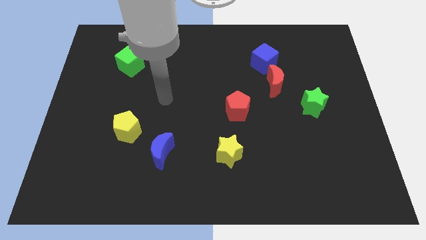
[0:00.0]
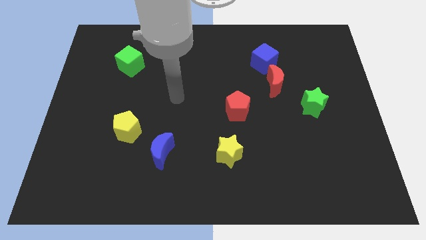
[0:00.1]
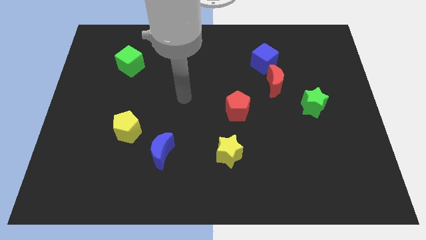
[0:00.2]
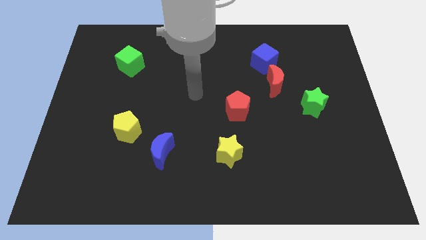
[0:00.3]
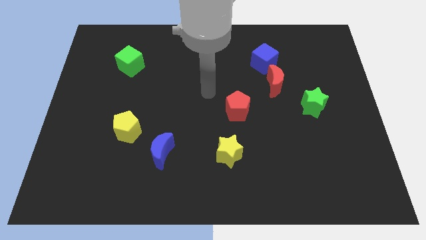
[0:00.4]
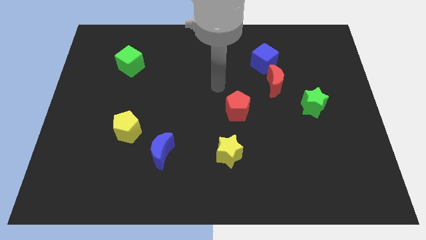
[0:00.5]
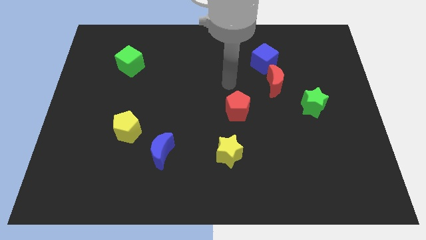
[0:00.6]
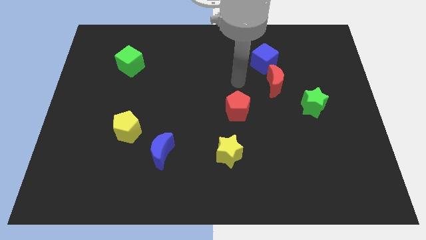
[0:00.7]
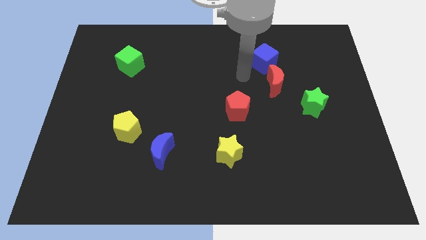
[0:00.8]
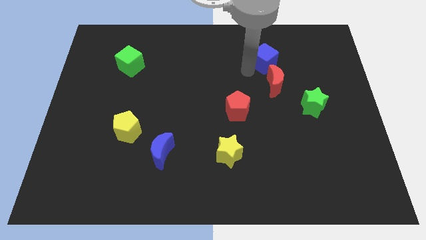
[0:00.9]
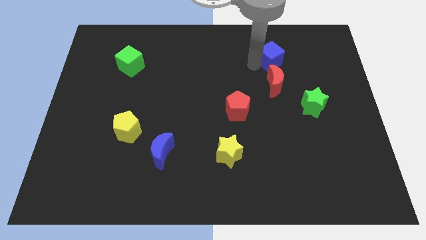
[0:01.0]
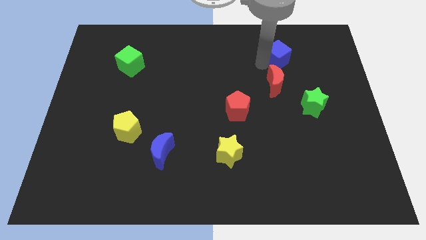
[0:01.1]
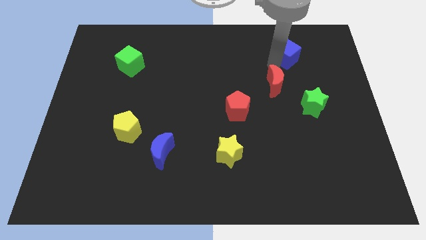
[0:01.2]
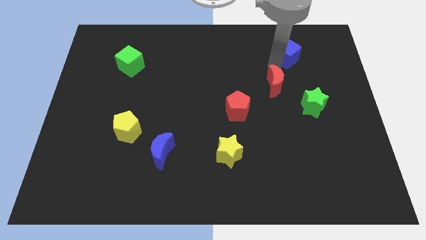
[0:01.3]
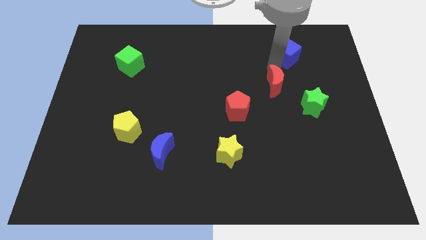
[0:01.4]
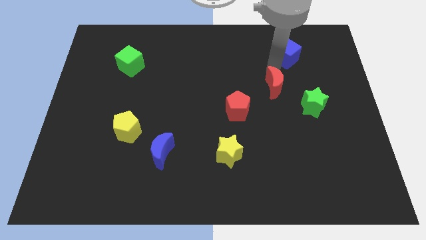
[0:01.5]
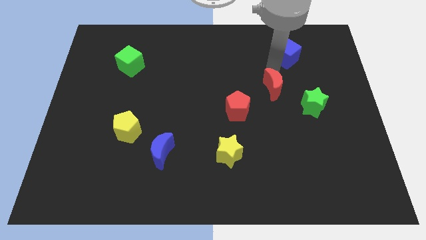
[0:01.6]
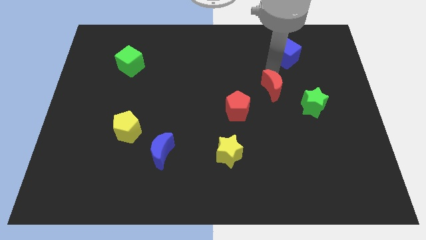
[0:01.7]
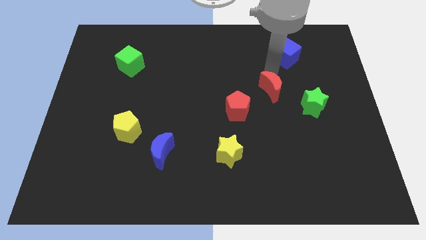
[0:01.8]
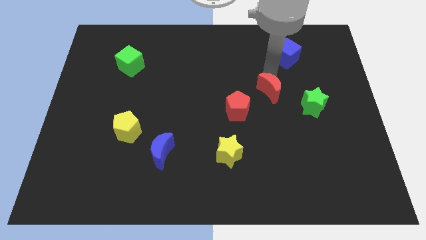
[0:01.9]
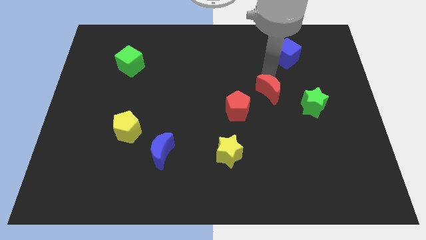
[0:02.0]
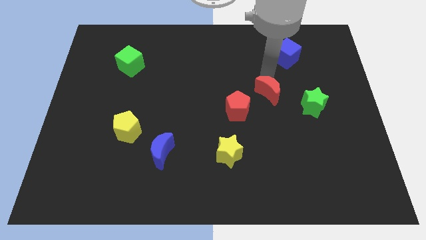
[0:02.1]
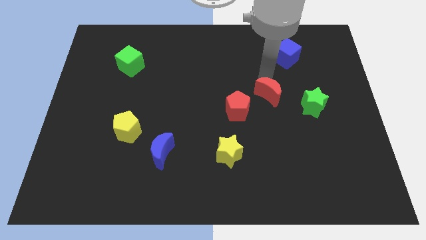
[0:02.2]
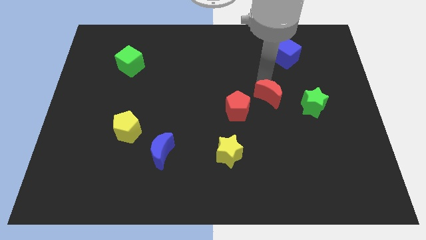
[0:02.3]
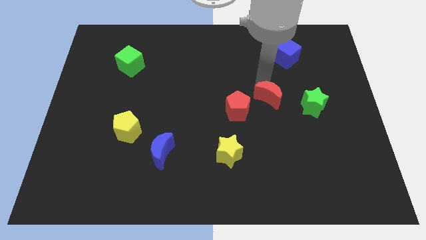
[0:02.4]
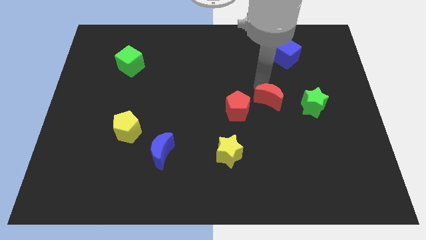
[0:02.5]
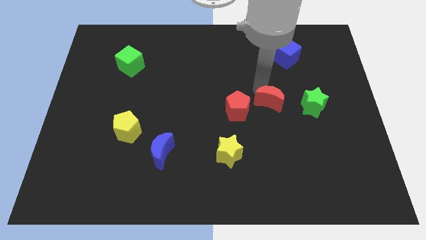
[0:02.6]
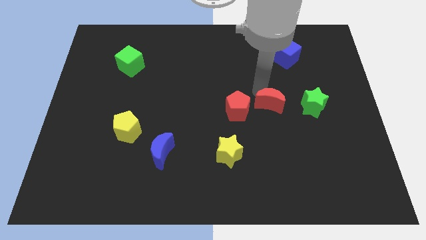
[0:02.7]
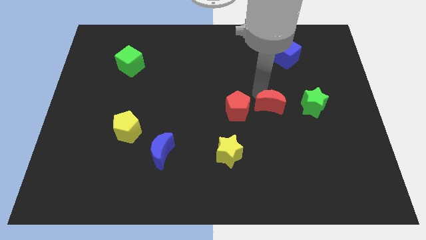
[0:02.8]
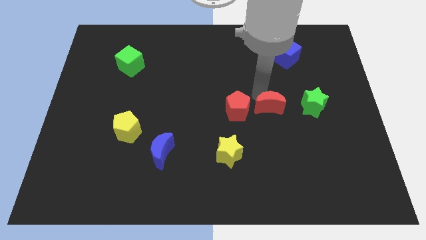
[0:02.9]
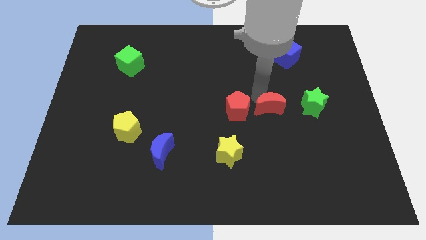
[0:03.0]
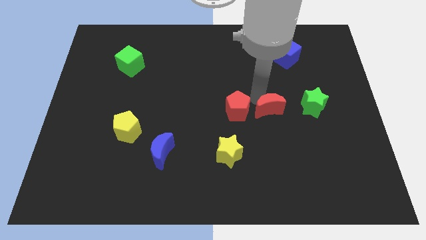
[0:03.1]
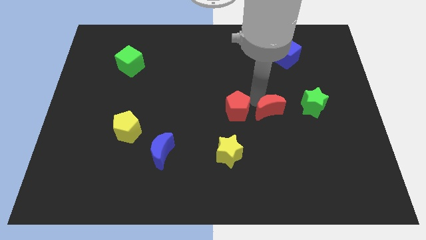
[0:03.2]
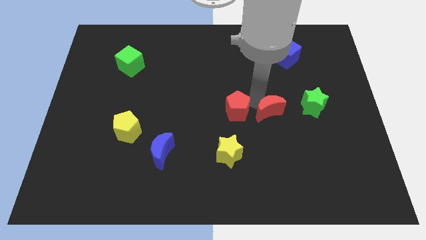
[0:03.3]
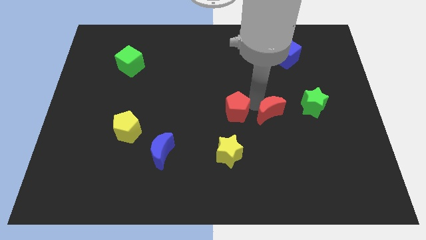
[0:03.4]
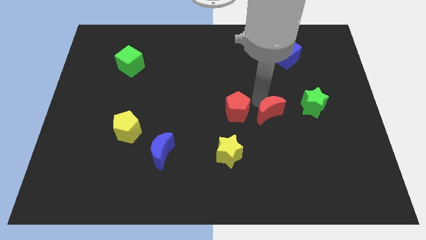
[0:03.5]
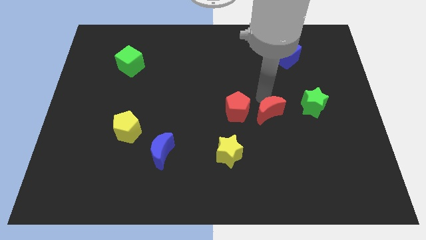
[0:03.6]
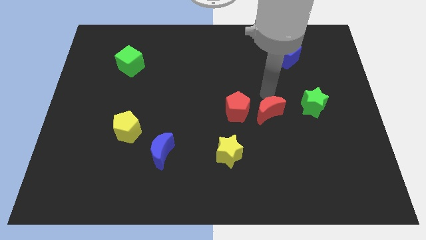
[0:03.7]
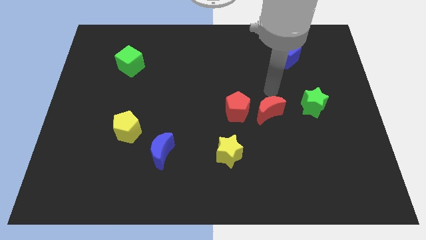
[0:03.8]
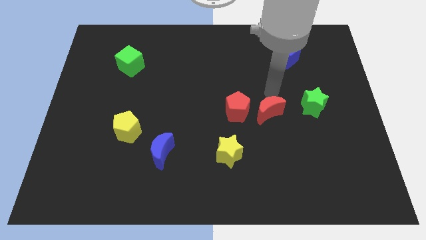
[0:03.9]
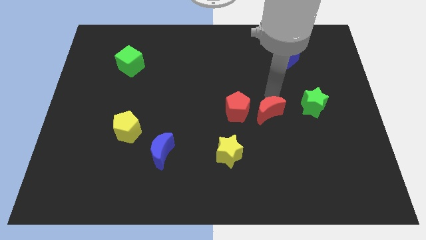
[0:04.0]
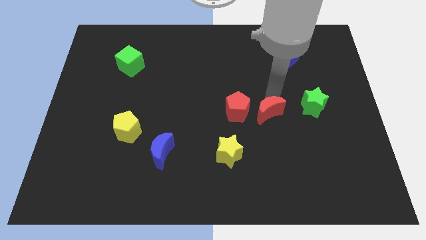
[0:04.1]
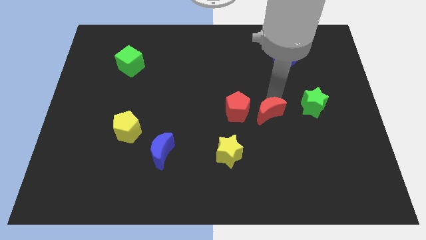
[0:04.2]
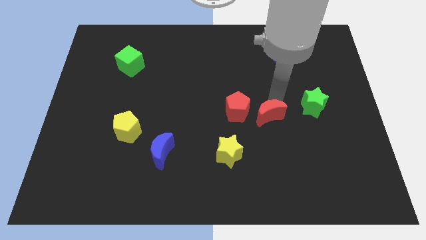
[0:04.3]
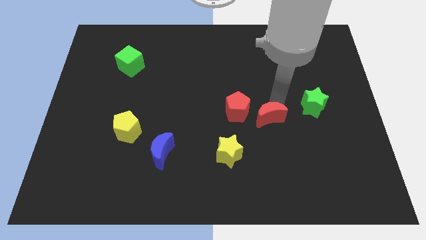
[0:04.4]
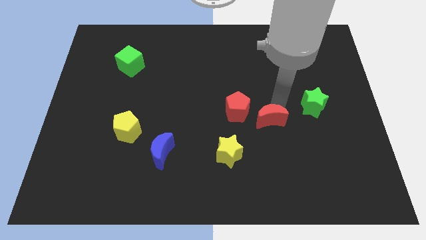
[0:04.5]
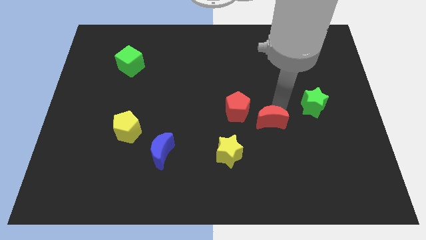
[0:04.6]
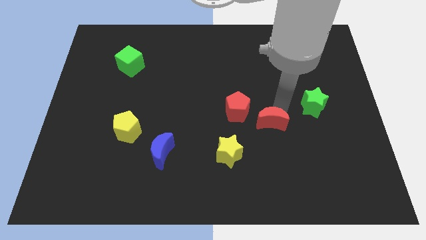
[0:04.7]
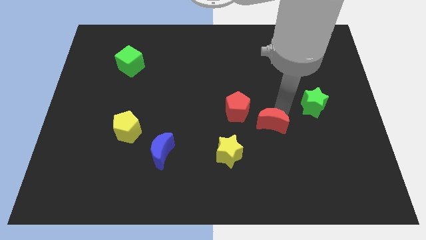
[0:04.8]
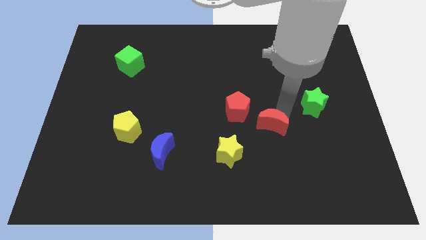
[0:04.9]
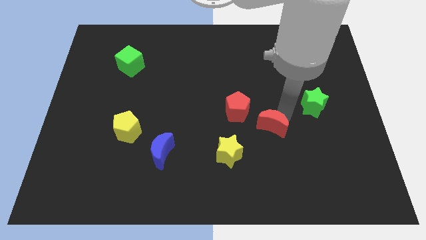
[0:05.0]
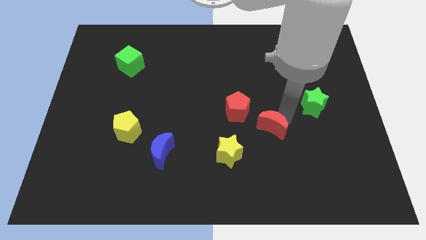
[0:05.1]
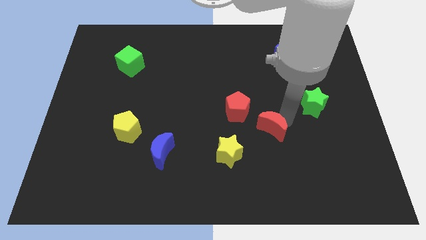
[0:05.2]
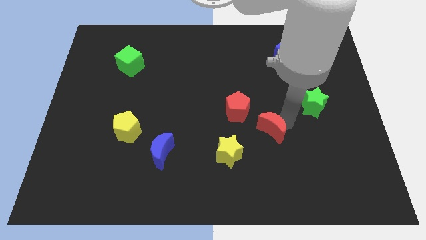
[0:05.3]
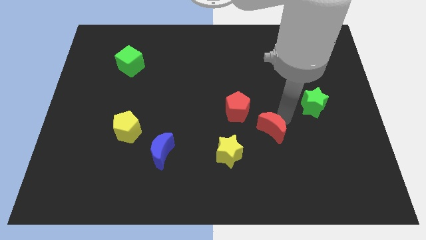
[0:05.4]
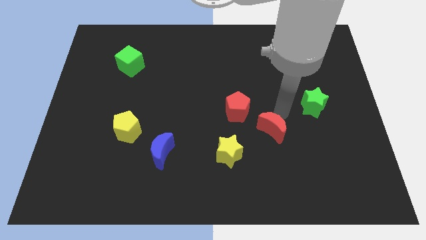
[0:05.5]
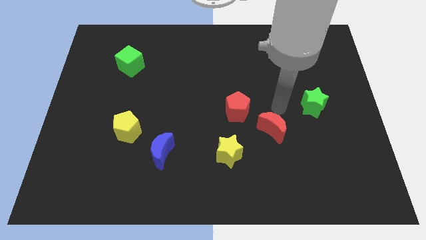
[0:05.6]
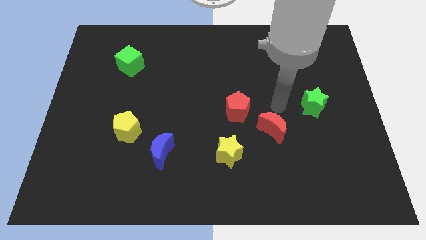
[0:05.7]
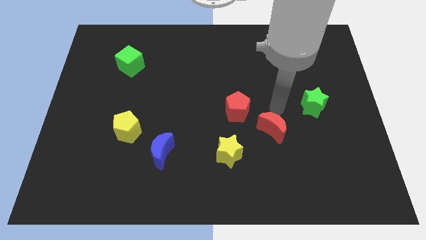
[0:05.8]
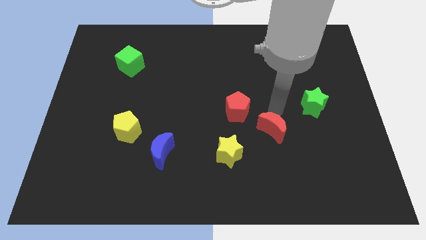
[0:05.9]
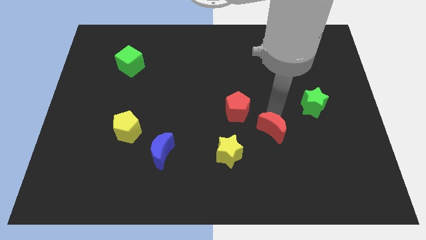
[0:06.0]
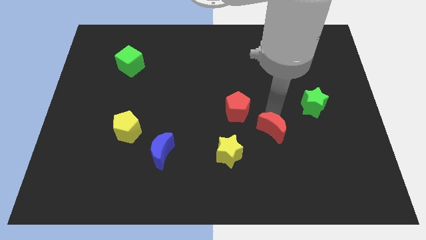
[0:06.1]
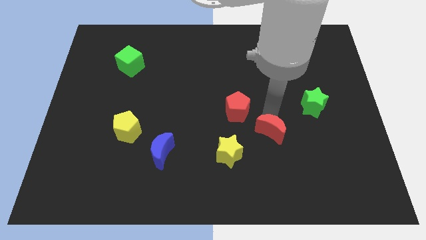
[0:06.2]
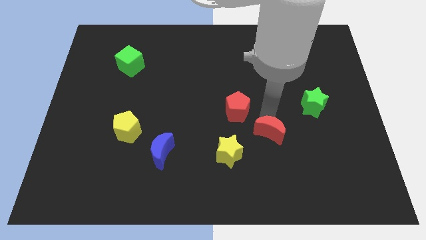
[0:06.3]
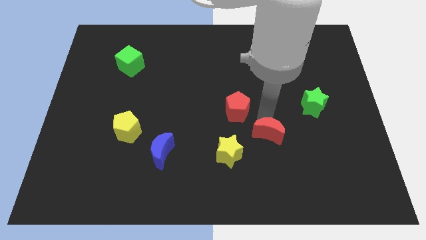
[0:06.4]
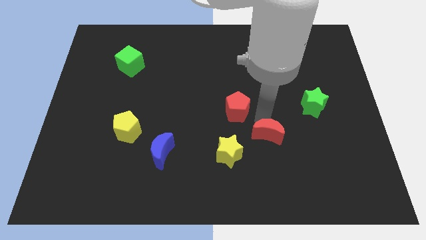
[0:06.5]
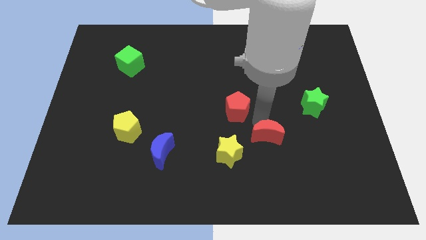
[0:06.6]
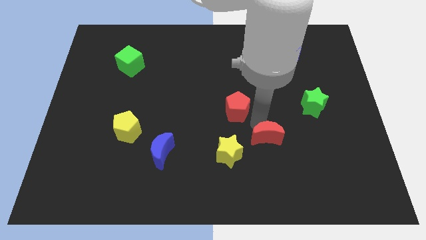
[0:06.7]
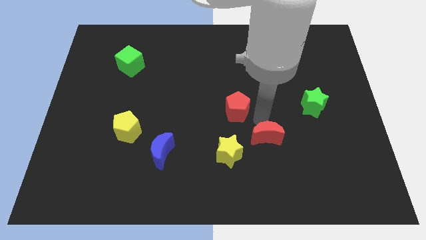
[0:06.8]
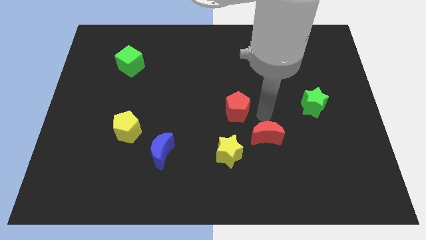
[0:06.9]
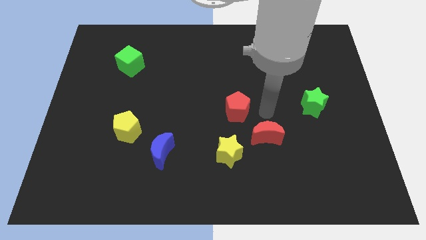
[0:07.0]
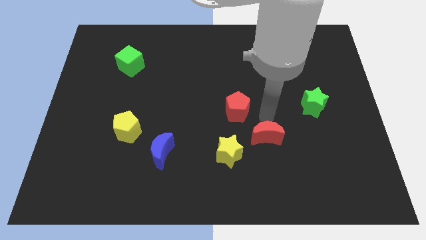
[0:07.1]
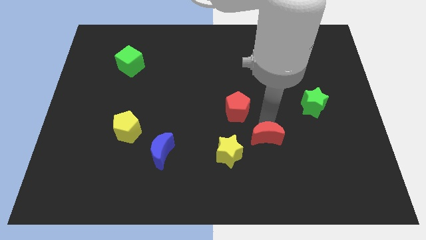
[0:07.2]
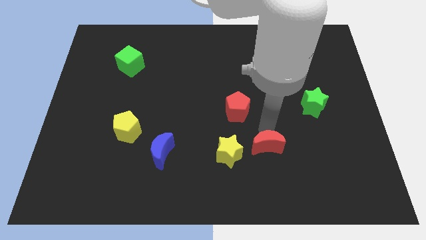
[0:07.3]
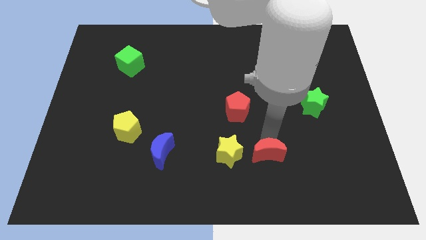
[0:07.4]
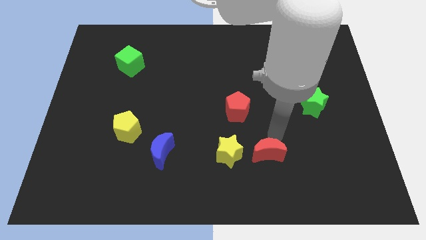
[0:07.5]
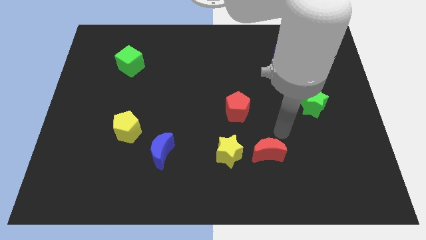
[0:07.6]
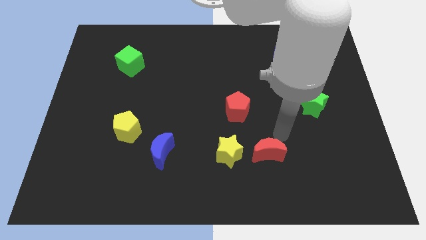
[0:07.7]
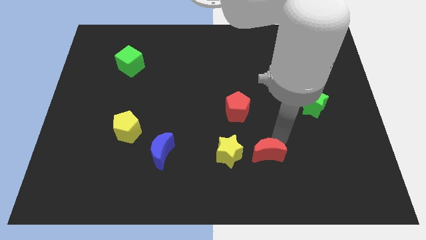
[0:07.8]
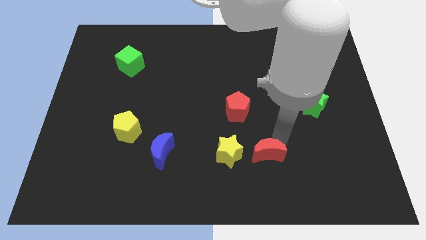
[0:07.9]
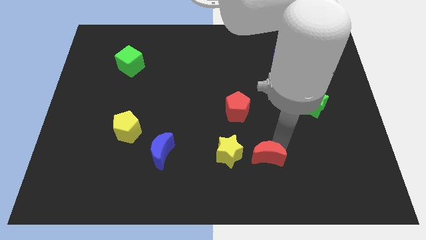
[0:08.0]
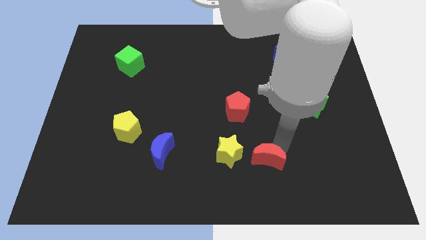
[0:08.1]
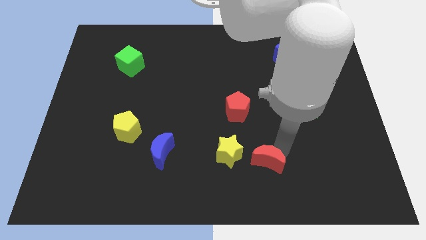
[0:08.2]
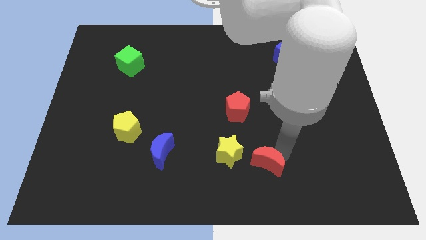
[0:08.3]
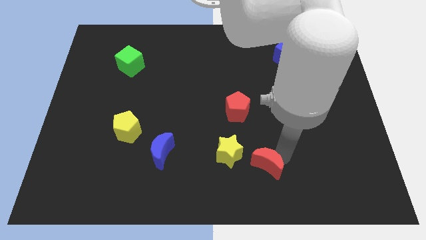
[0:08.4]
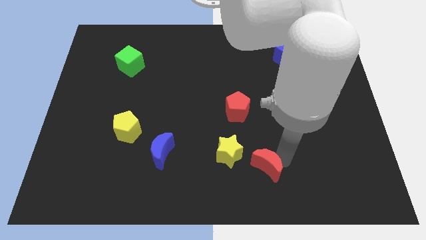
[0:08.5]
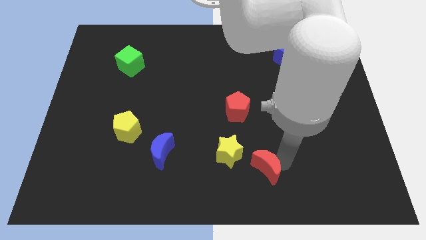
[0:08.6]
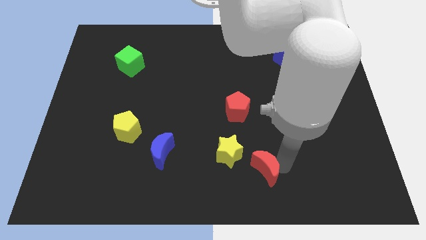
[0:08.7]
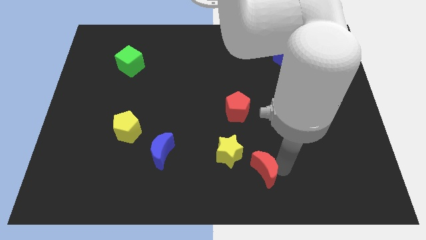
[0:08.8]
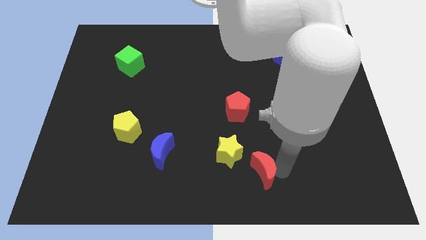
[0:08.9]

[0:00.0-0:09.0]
push the red moon to the bottom side
